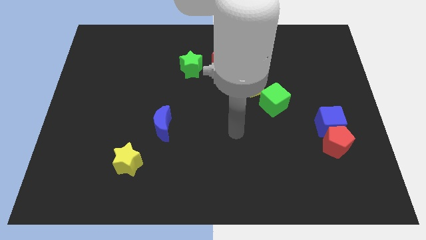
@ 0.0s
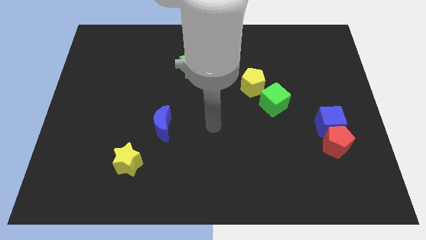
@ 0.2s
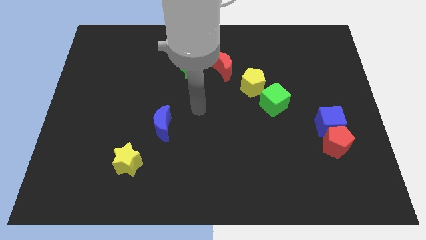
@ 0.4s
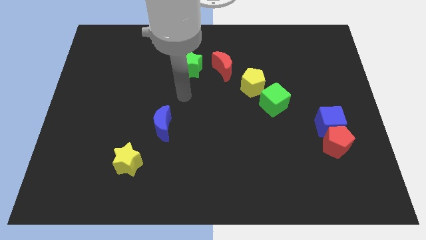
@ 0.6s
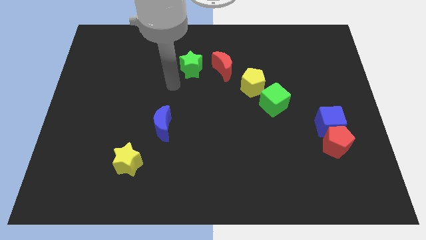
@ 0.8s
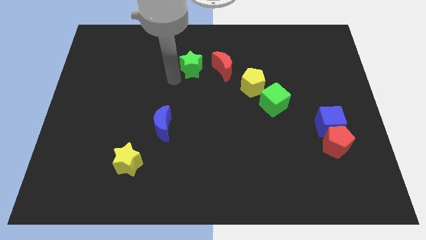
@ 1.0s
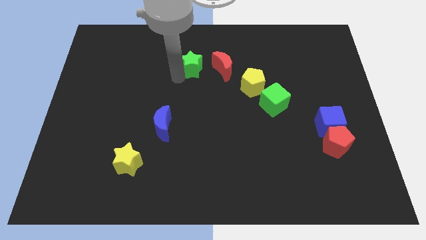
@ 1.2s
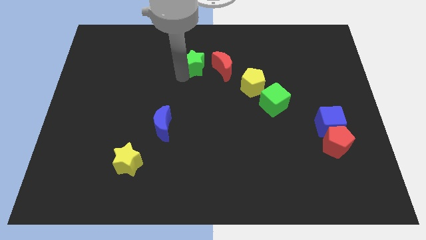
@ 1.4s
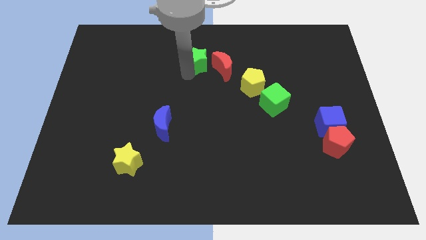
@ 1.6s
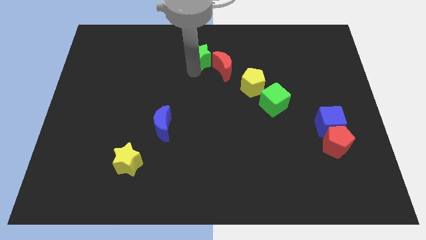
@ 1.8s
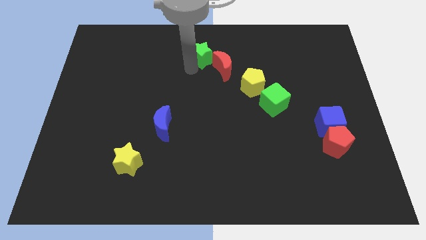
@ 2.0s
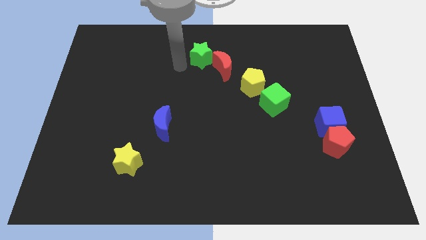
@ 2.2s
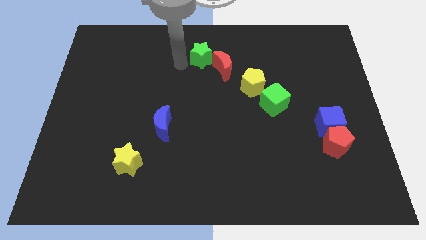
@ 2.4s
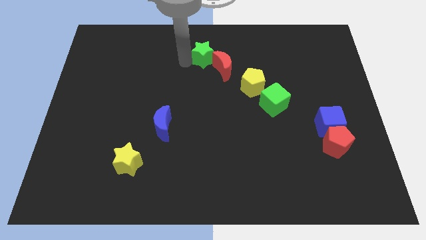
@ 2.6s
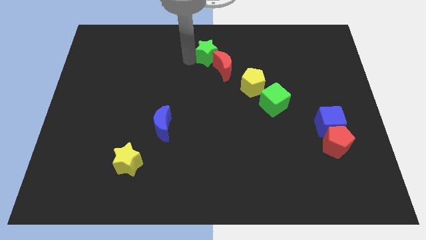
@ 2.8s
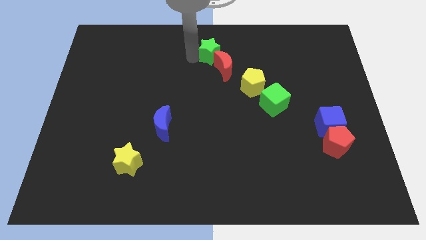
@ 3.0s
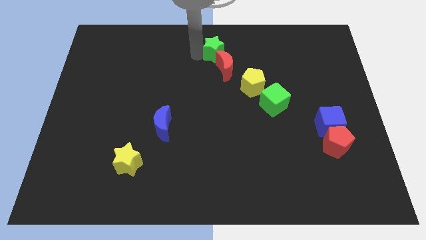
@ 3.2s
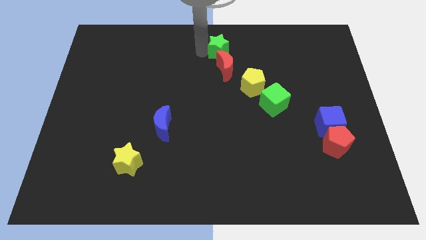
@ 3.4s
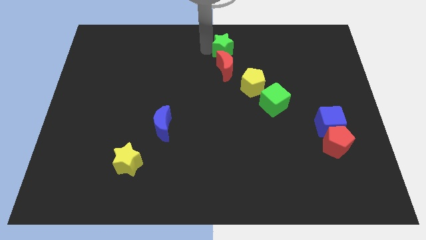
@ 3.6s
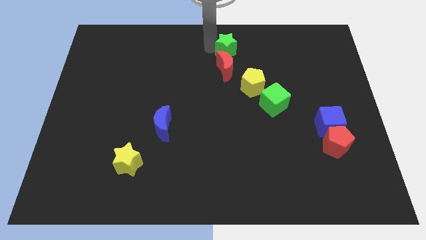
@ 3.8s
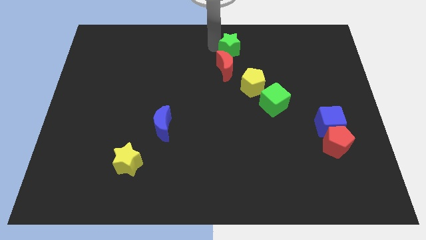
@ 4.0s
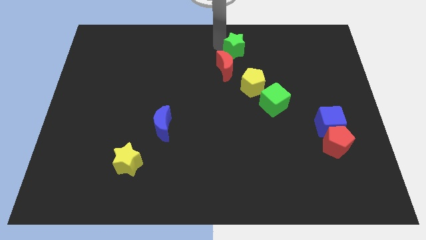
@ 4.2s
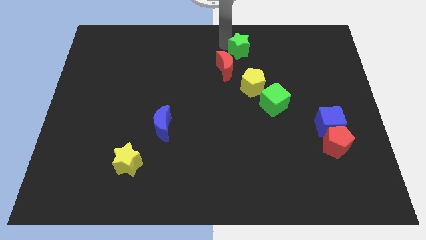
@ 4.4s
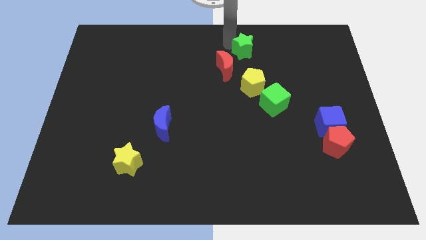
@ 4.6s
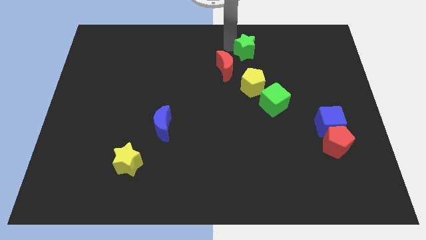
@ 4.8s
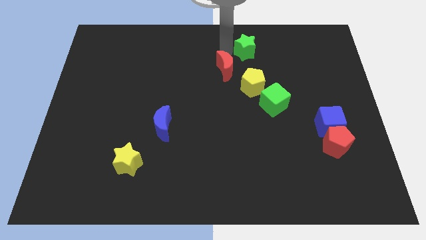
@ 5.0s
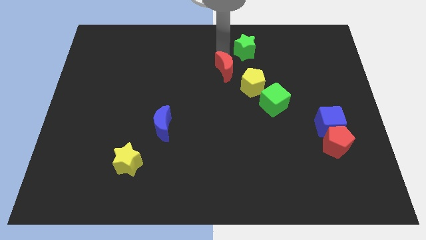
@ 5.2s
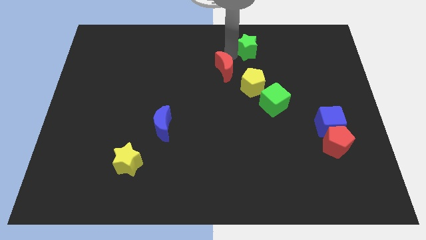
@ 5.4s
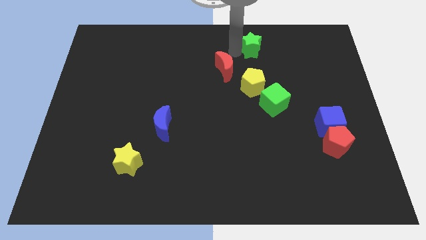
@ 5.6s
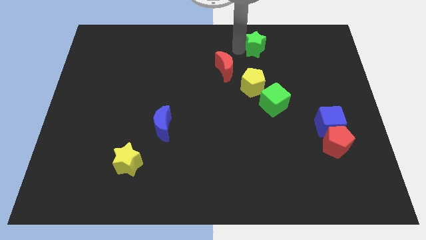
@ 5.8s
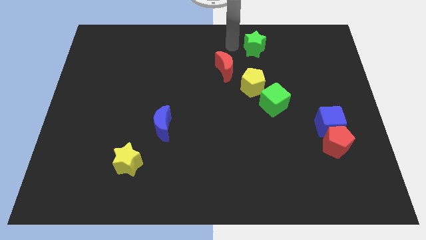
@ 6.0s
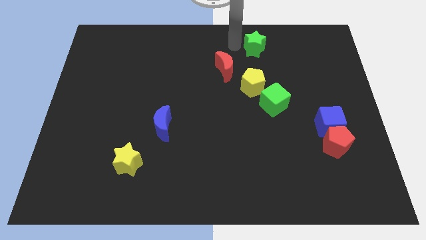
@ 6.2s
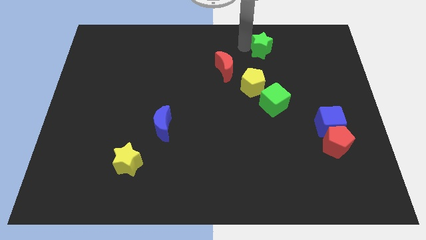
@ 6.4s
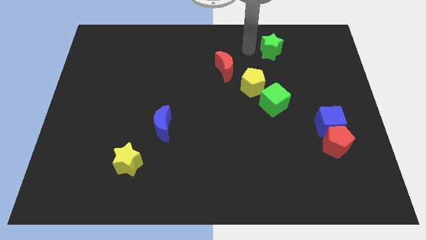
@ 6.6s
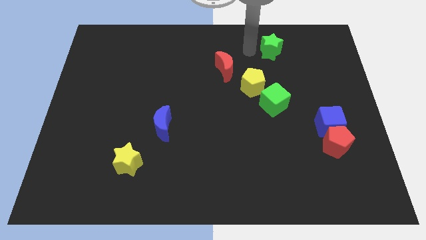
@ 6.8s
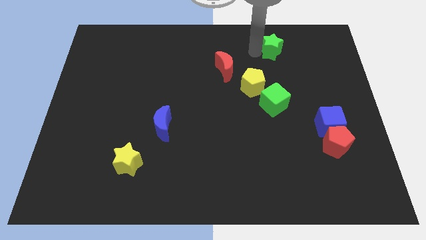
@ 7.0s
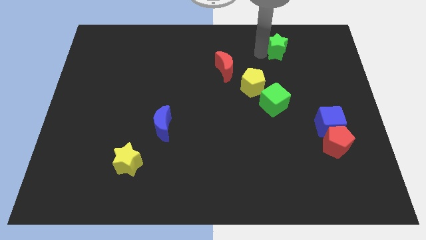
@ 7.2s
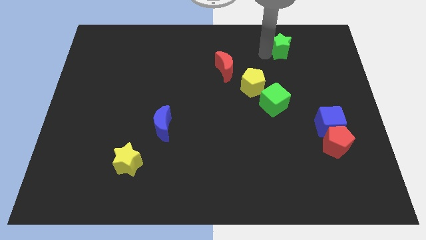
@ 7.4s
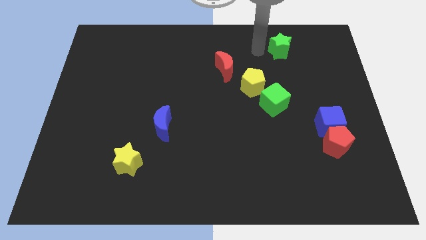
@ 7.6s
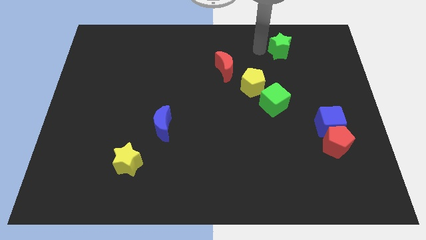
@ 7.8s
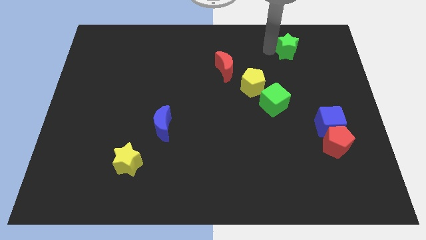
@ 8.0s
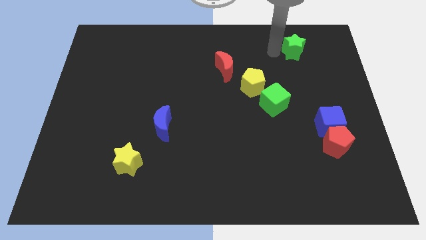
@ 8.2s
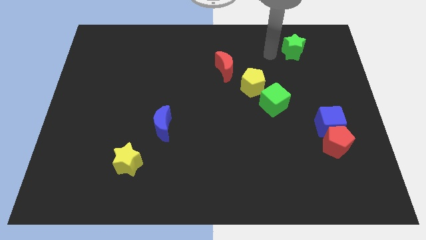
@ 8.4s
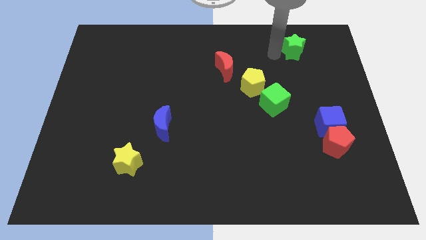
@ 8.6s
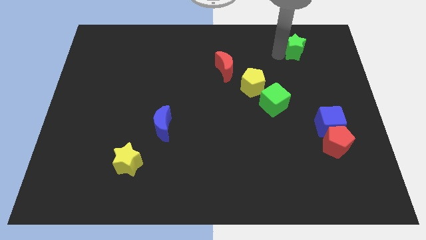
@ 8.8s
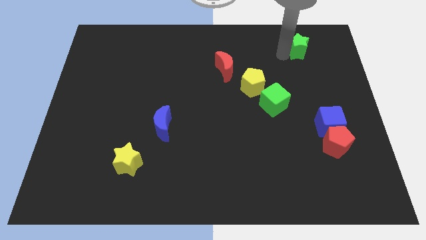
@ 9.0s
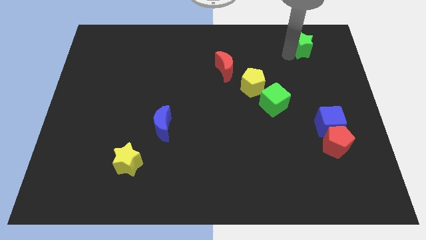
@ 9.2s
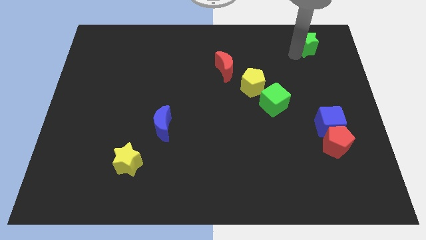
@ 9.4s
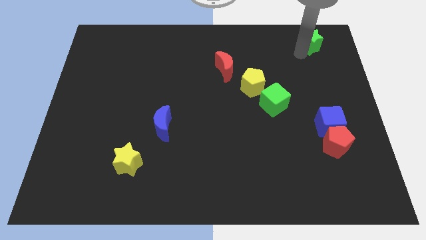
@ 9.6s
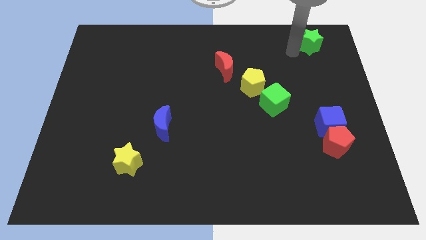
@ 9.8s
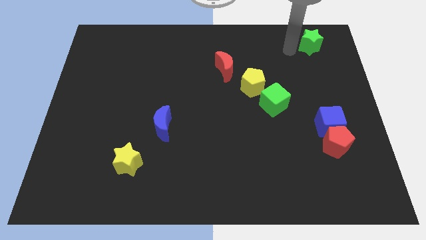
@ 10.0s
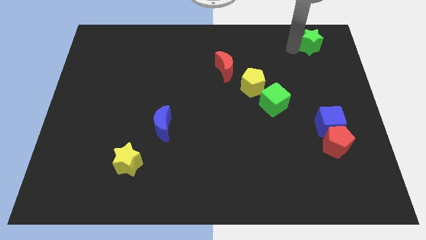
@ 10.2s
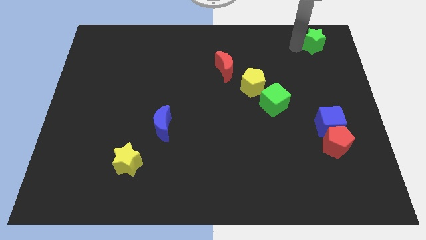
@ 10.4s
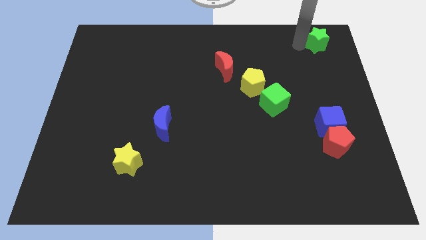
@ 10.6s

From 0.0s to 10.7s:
push the green star to the top right corner
